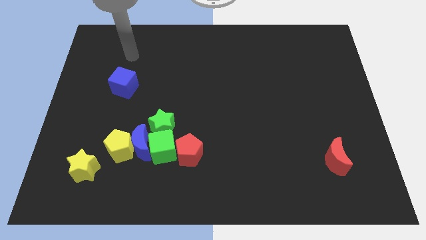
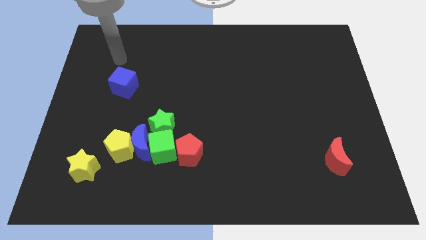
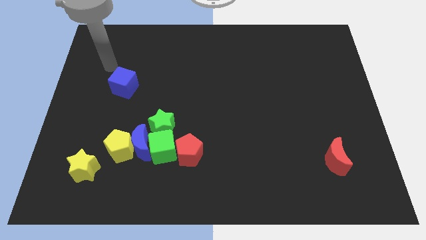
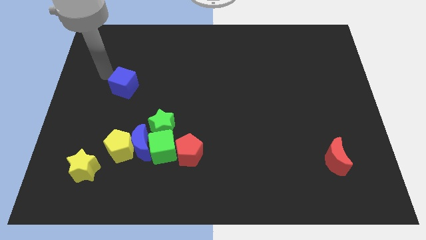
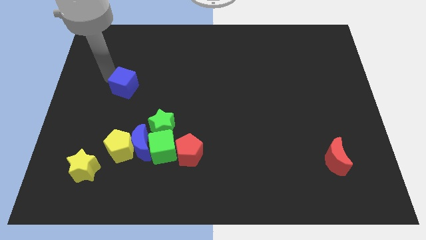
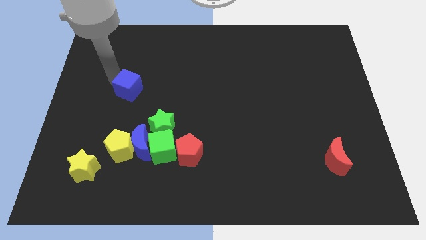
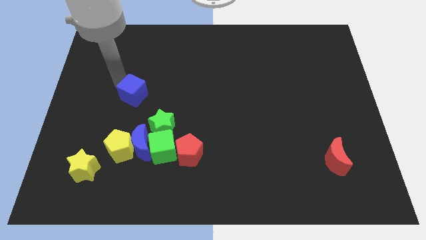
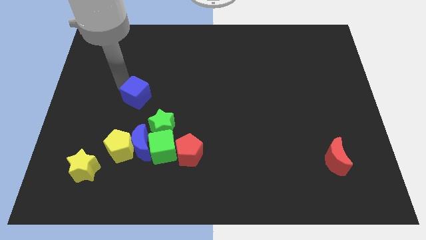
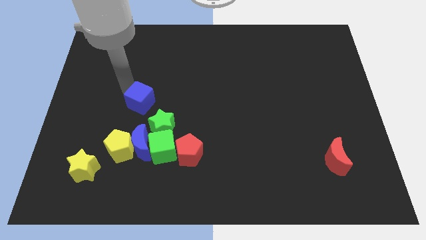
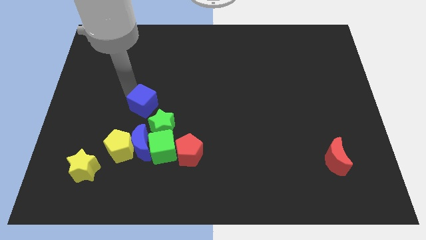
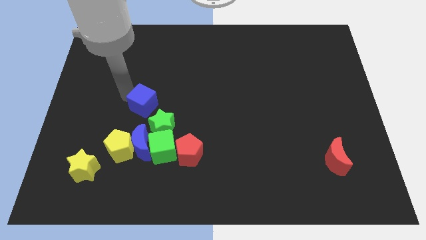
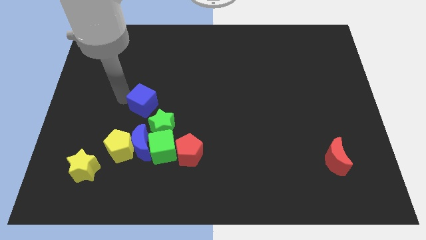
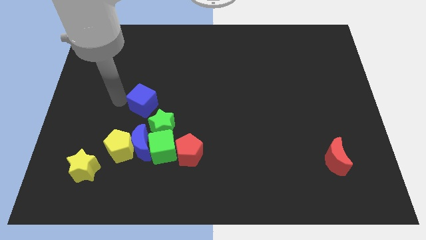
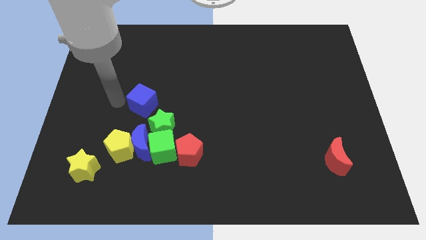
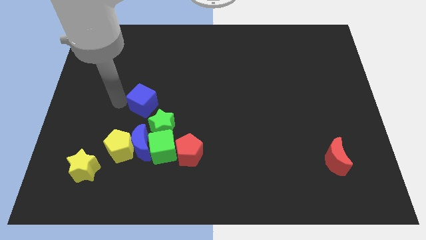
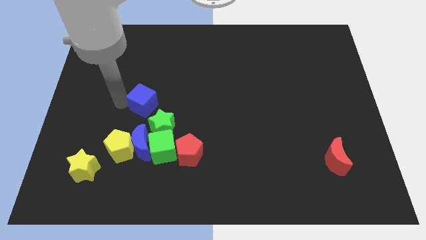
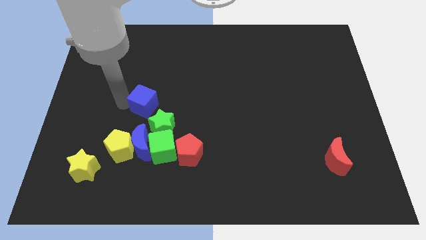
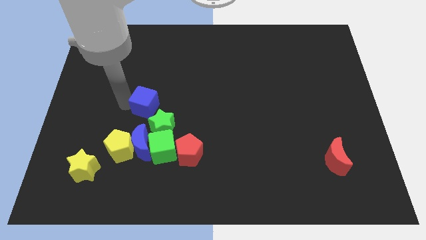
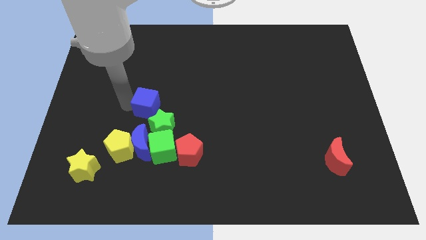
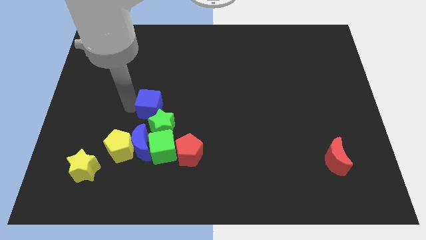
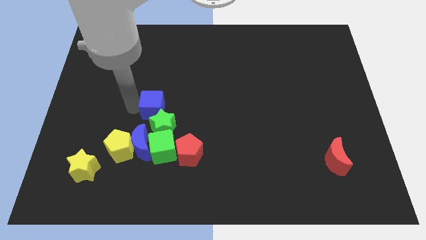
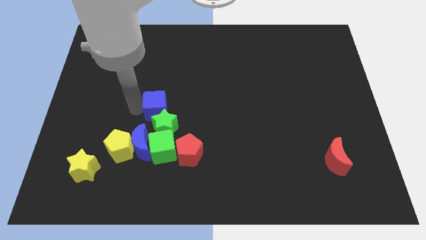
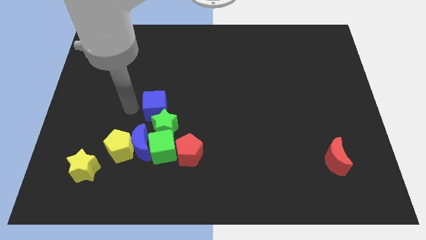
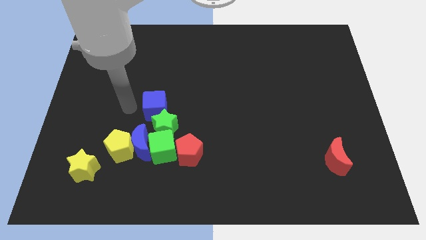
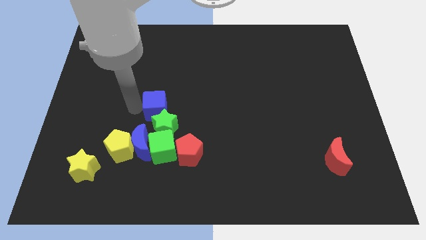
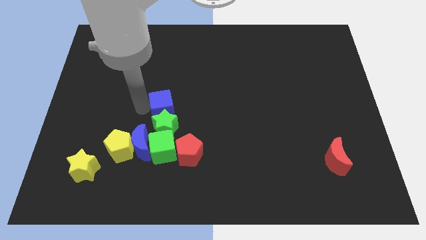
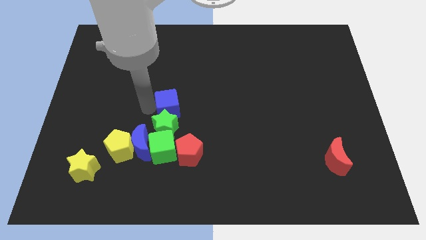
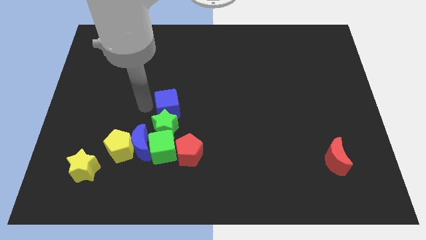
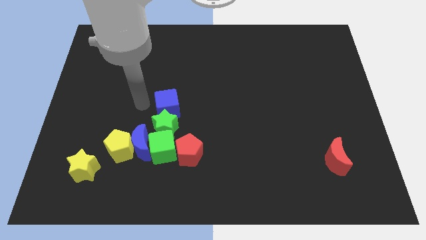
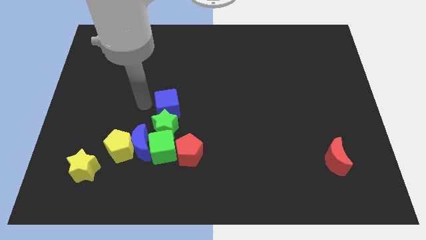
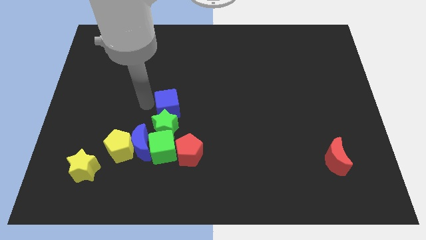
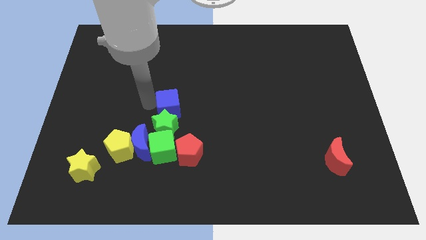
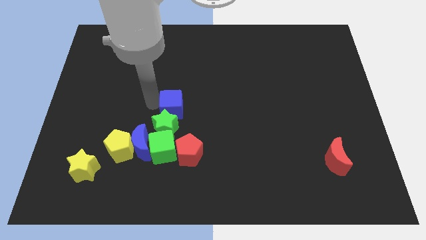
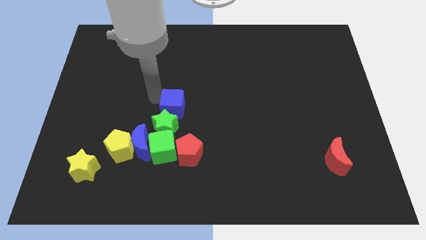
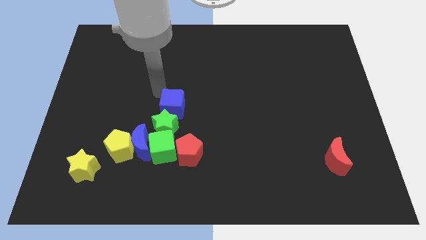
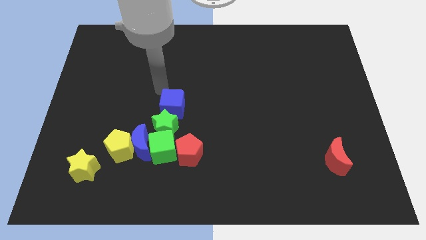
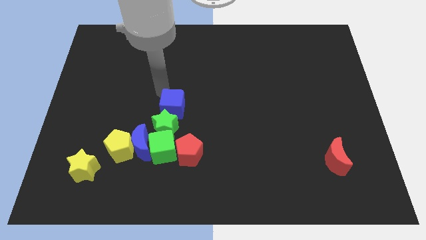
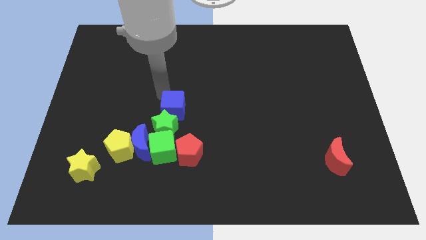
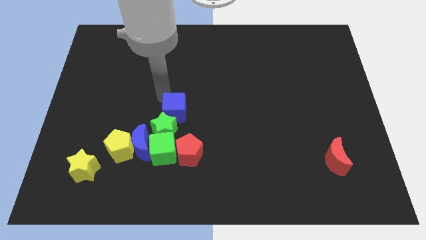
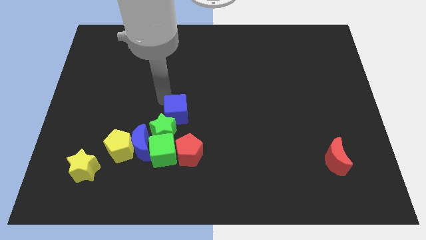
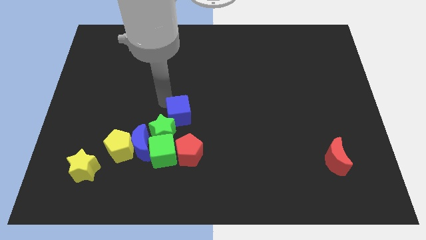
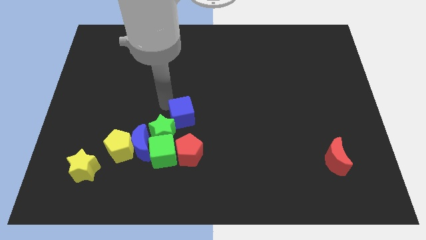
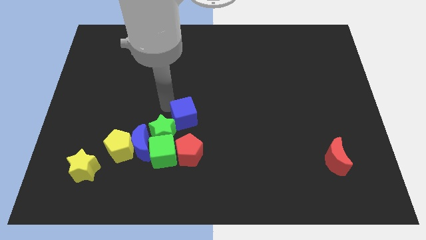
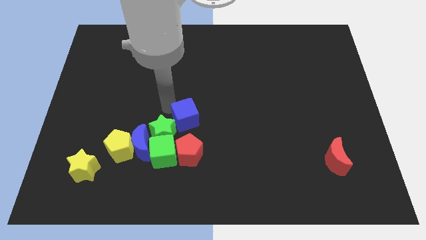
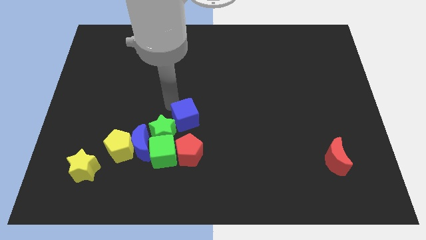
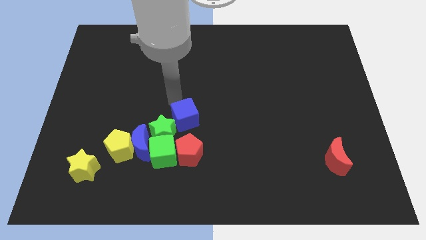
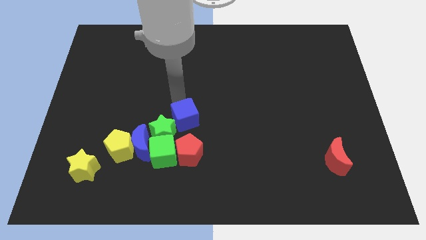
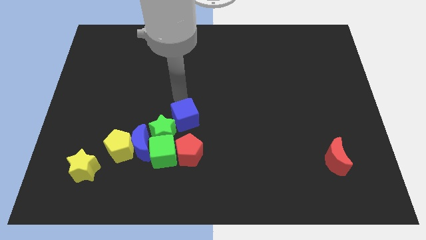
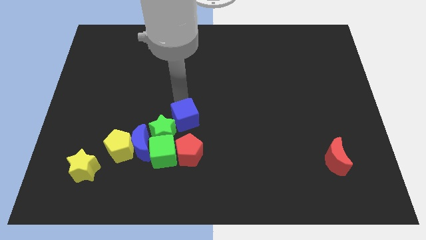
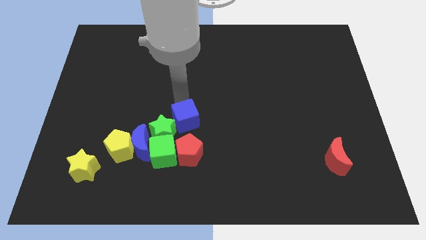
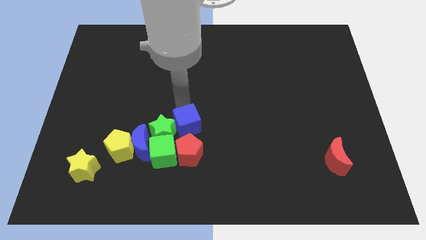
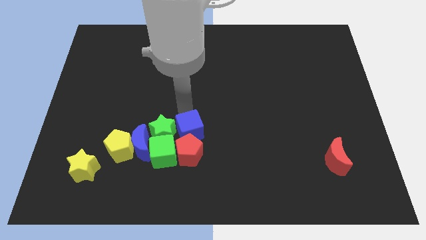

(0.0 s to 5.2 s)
push the blue cube close to the red pentagon

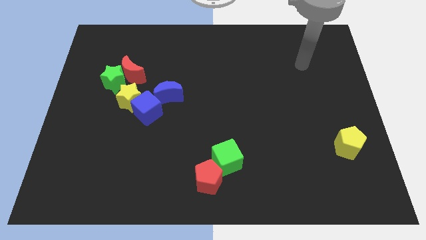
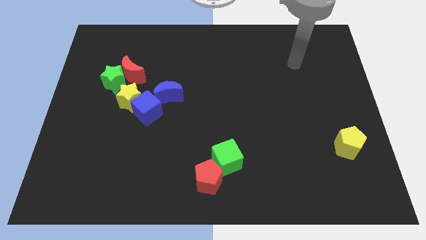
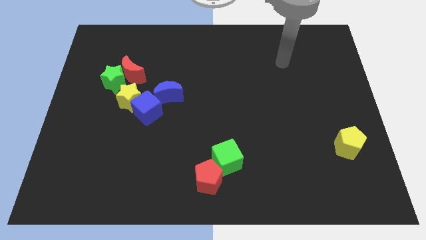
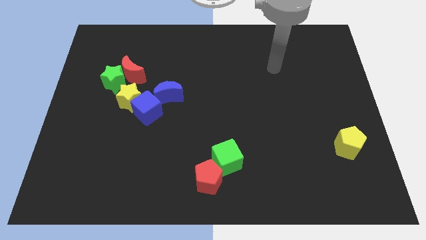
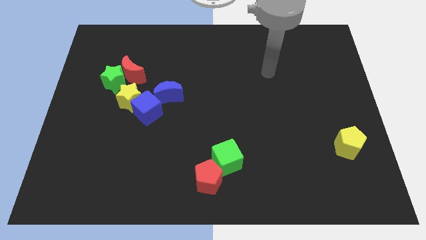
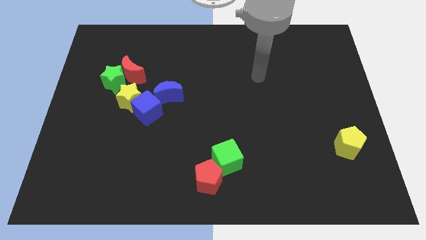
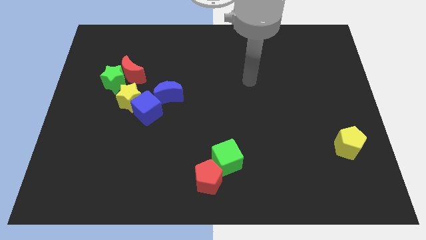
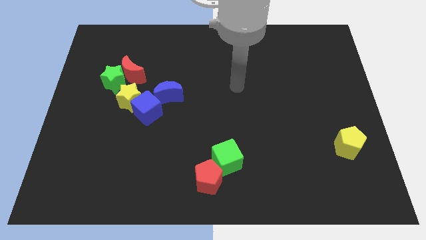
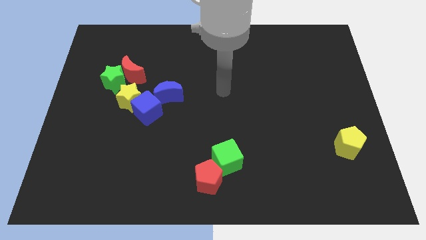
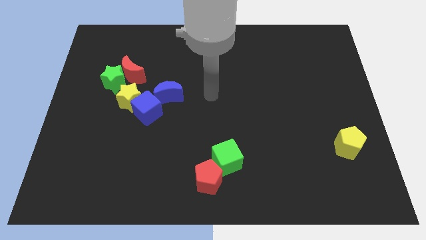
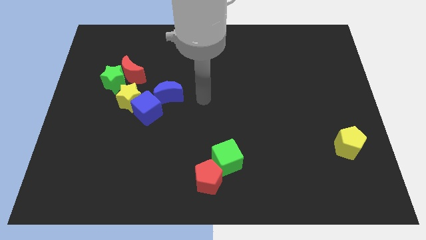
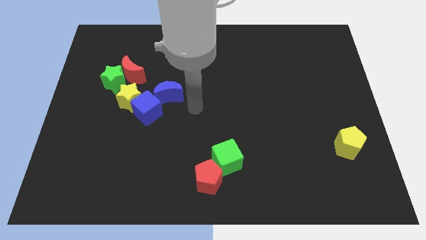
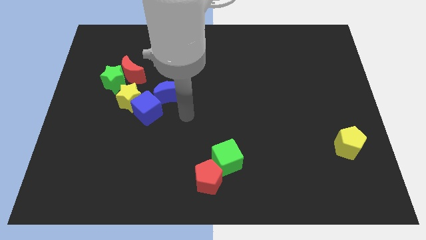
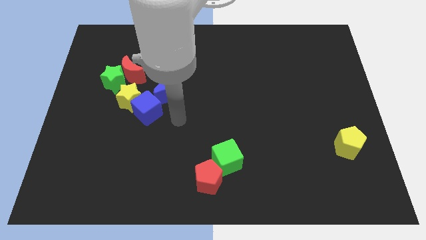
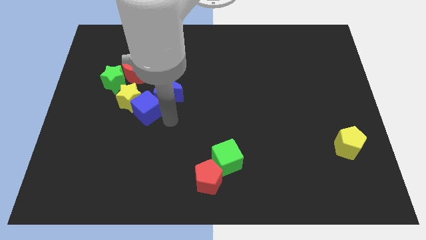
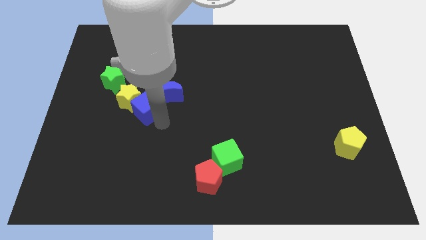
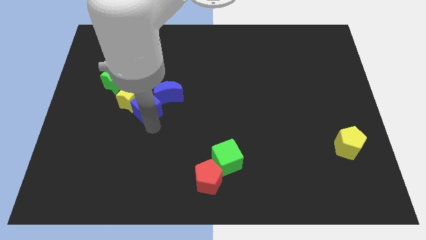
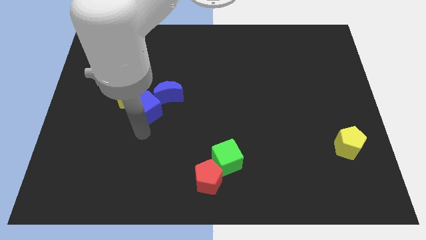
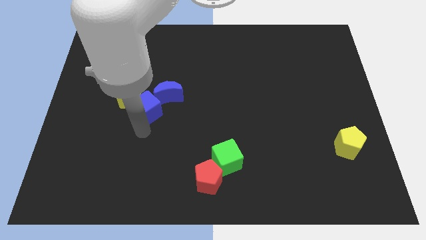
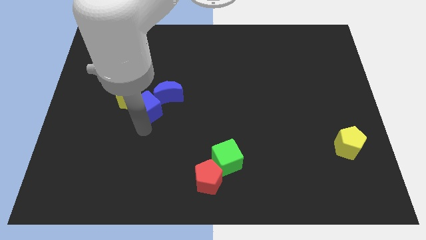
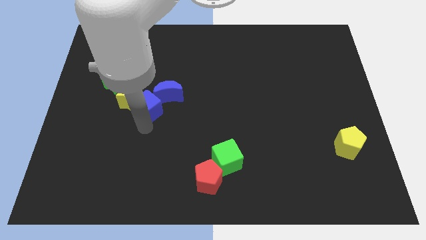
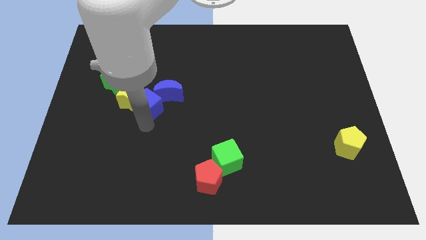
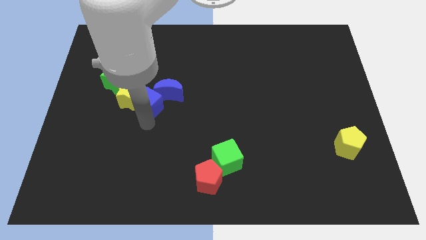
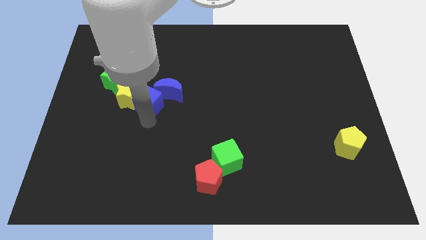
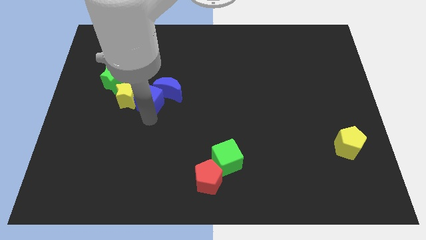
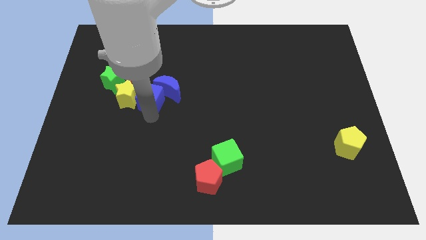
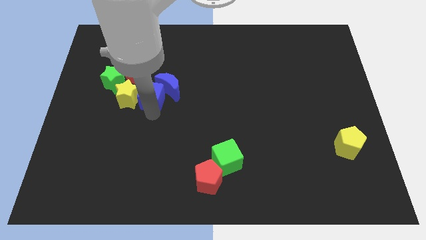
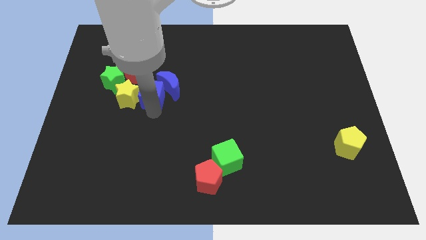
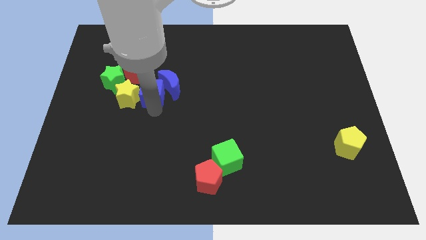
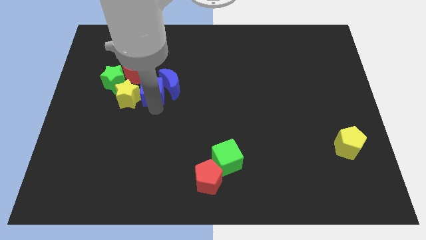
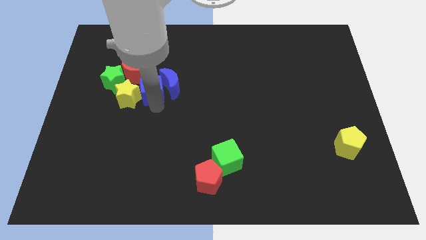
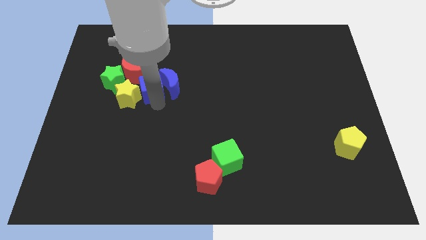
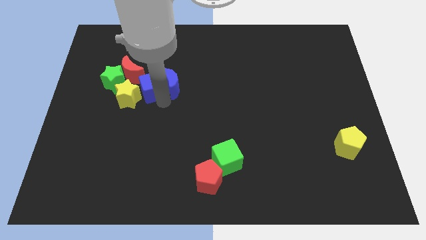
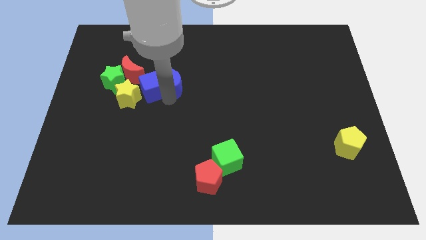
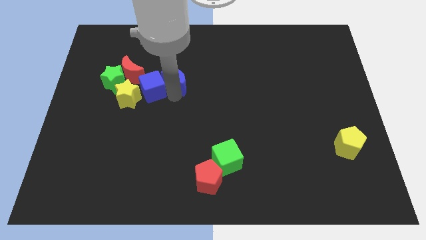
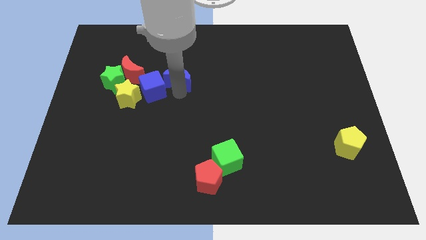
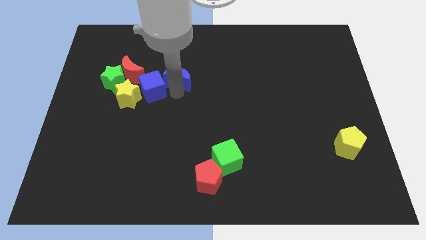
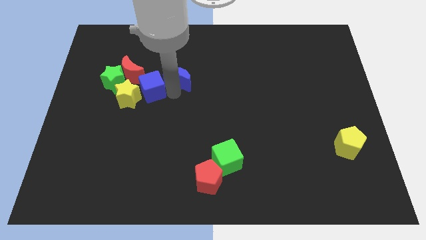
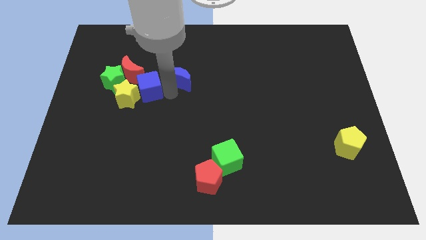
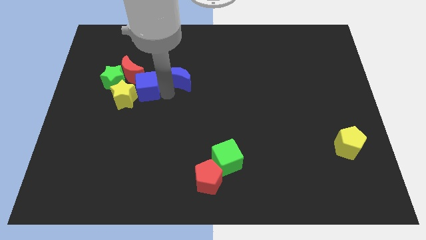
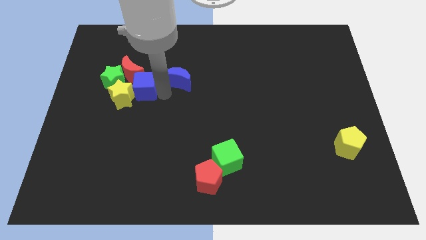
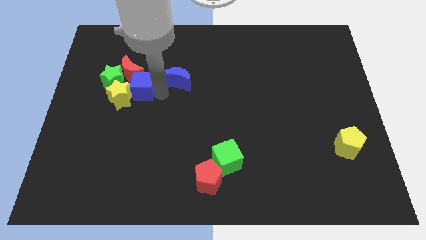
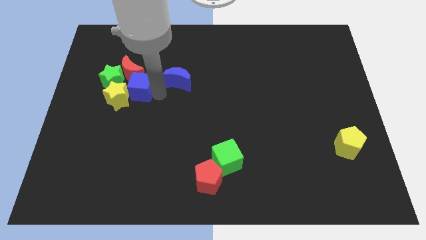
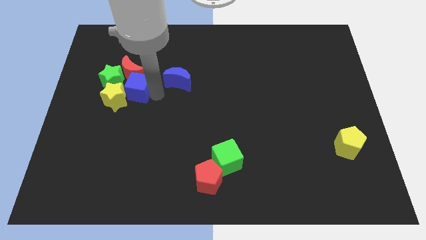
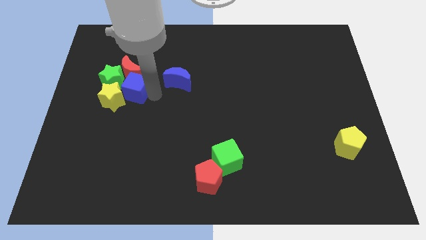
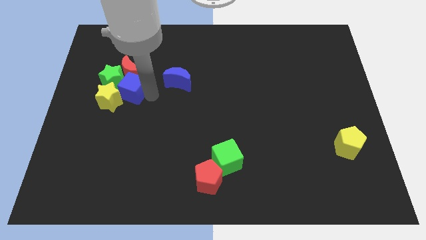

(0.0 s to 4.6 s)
push the blue cube towards the green star
